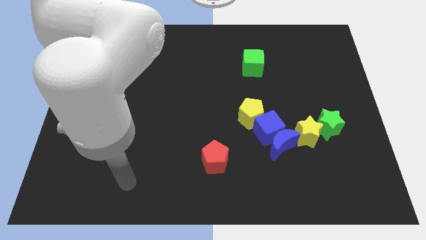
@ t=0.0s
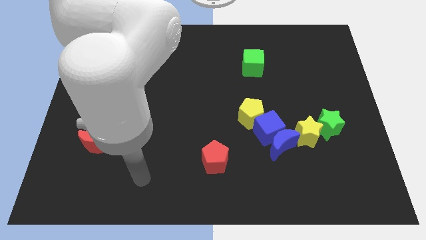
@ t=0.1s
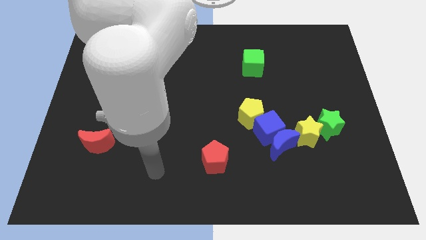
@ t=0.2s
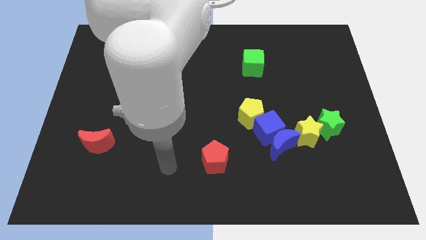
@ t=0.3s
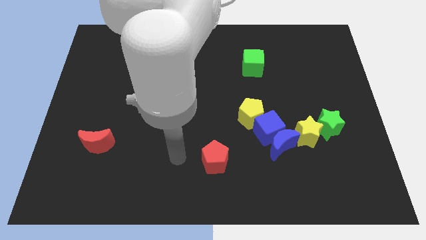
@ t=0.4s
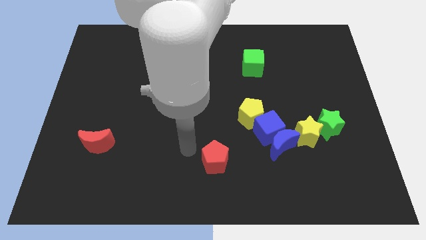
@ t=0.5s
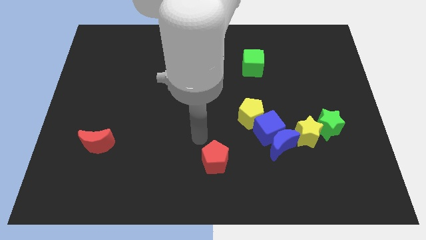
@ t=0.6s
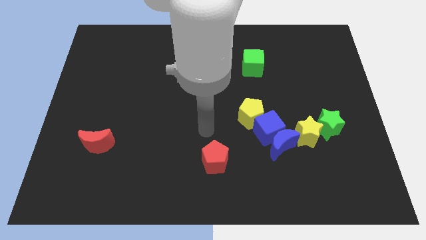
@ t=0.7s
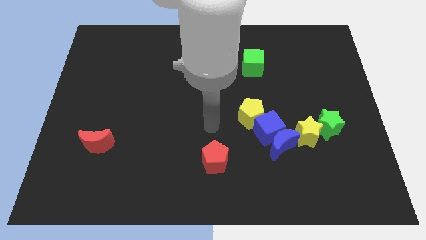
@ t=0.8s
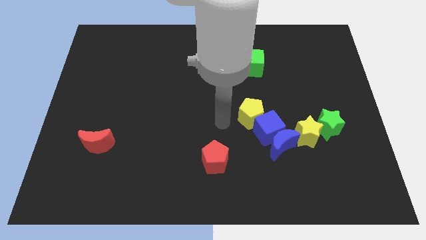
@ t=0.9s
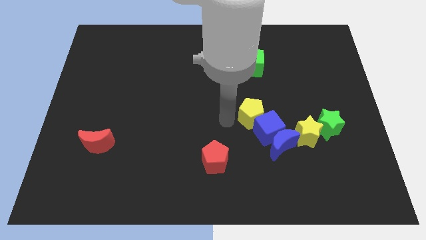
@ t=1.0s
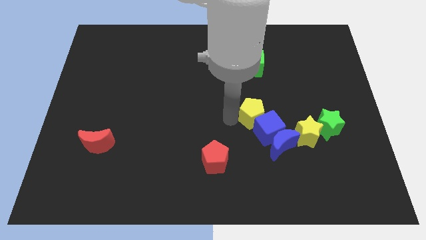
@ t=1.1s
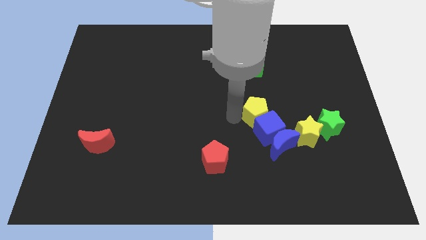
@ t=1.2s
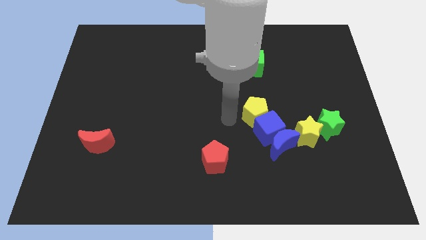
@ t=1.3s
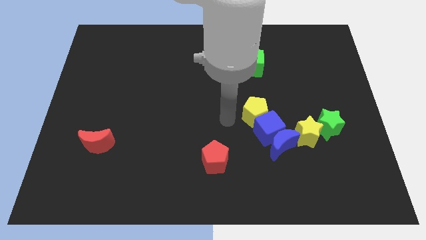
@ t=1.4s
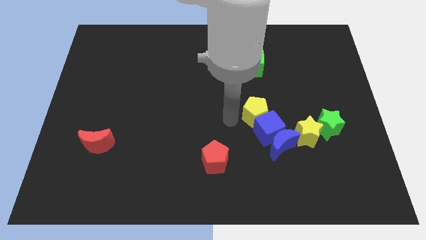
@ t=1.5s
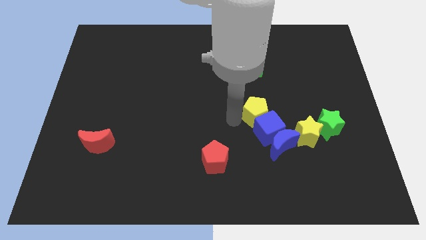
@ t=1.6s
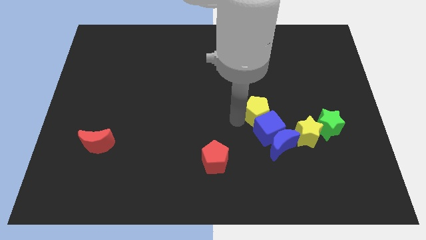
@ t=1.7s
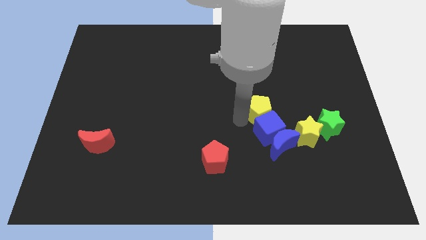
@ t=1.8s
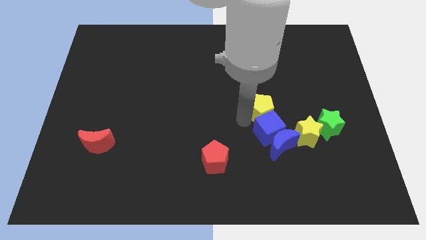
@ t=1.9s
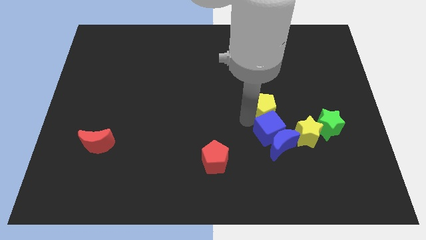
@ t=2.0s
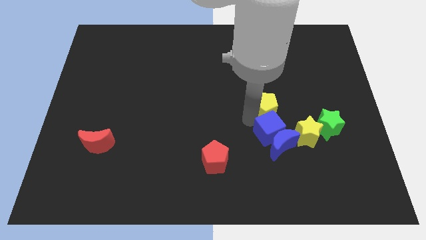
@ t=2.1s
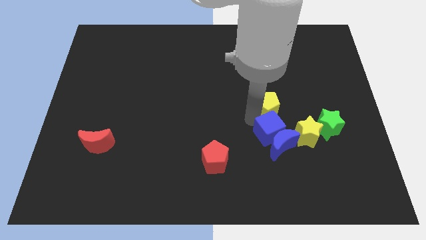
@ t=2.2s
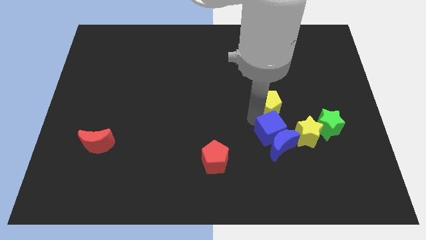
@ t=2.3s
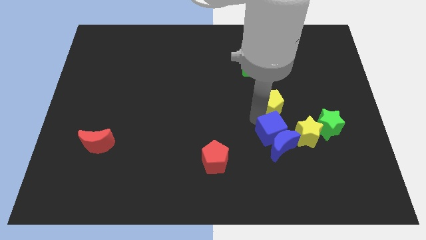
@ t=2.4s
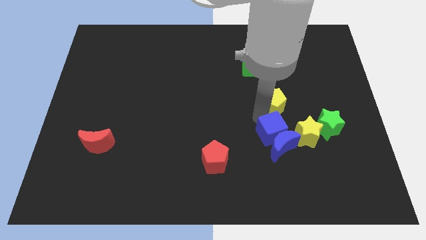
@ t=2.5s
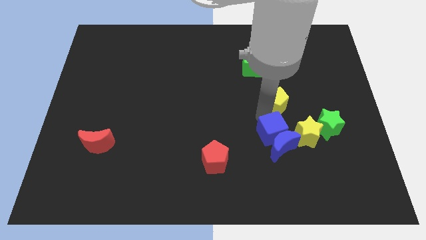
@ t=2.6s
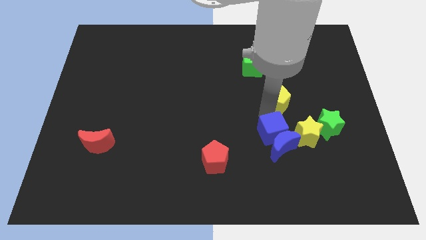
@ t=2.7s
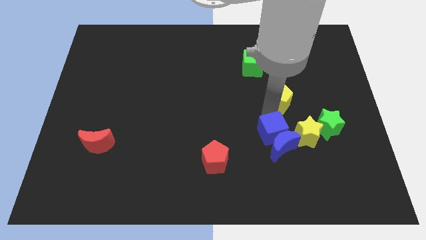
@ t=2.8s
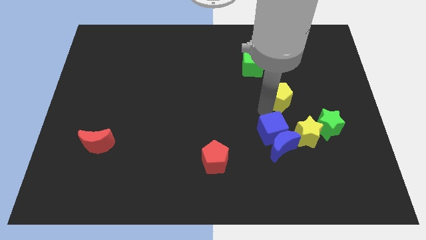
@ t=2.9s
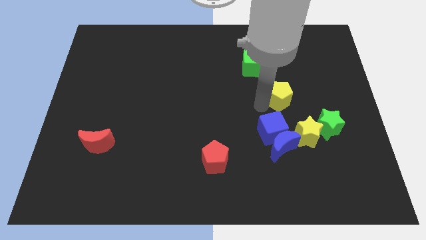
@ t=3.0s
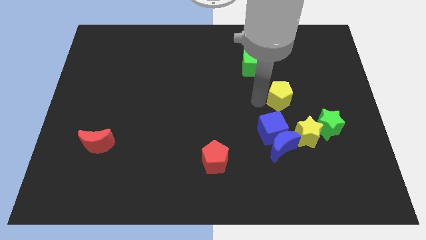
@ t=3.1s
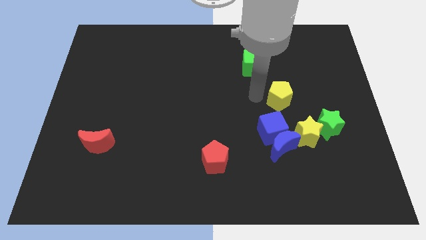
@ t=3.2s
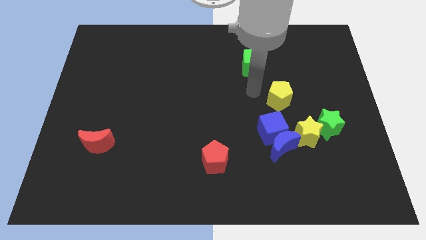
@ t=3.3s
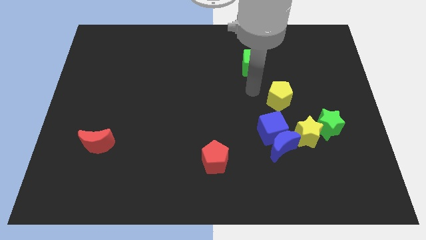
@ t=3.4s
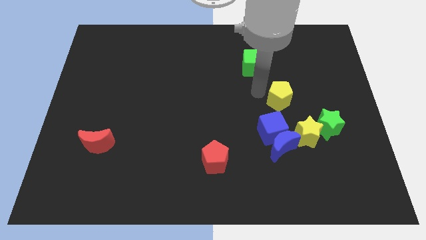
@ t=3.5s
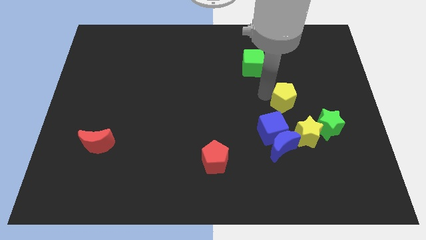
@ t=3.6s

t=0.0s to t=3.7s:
push the yellow pentagon to the right a little

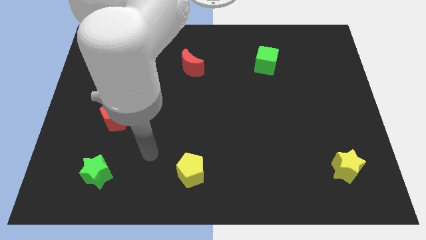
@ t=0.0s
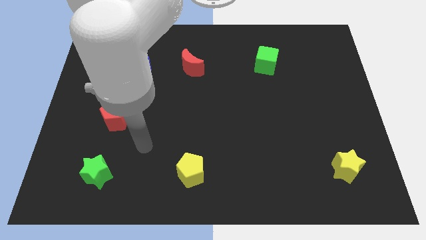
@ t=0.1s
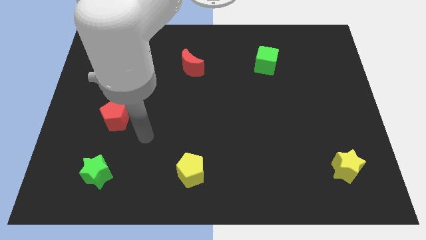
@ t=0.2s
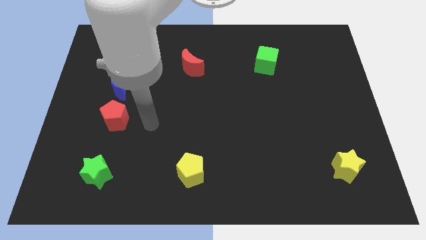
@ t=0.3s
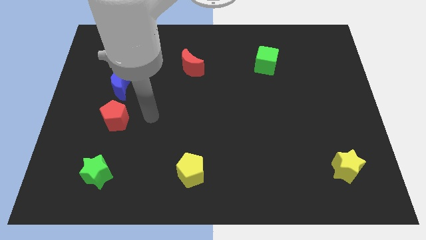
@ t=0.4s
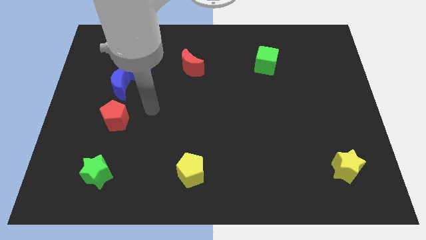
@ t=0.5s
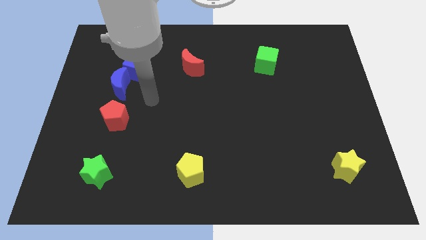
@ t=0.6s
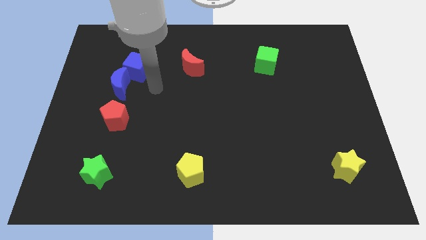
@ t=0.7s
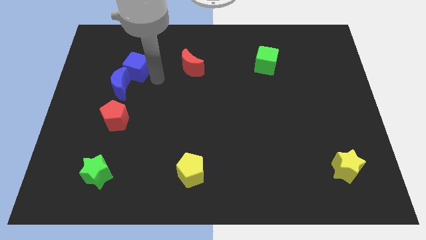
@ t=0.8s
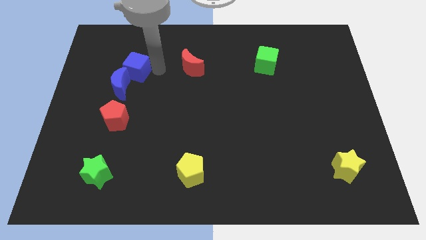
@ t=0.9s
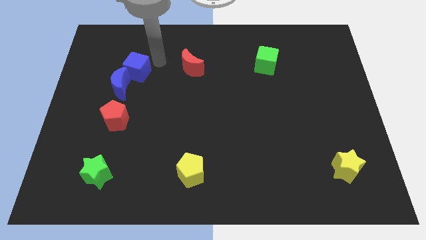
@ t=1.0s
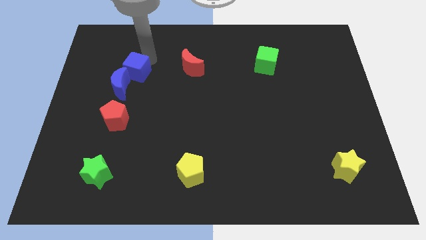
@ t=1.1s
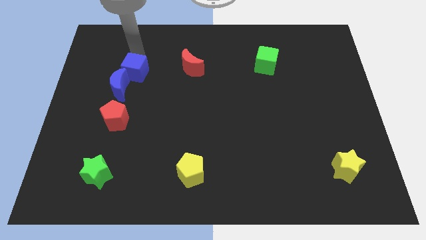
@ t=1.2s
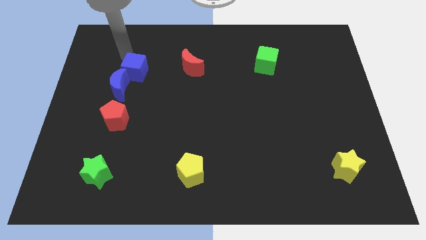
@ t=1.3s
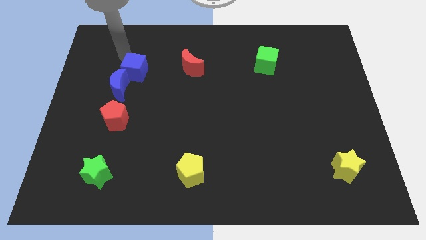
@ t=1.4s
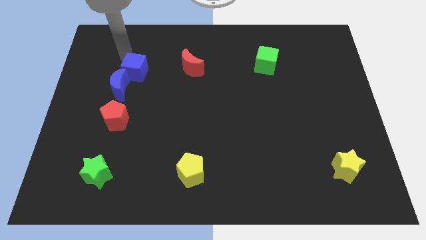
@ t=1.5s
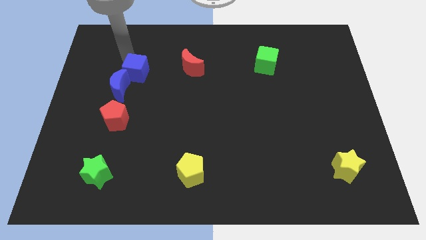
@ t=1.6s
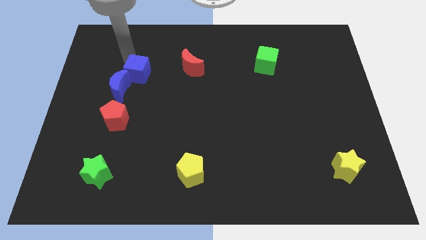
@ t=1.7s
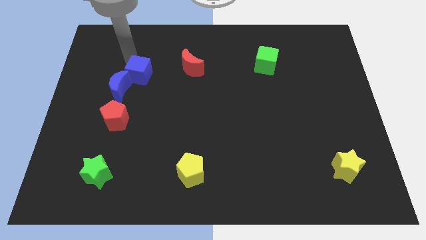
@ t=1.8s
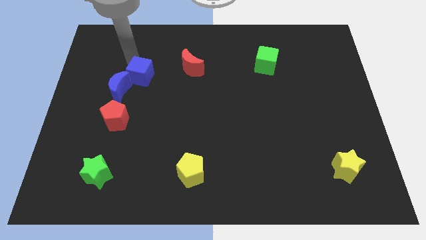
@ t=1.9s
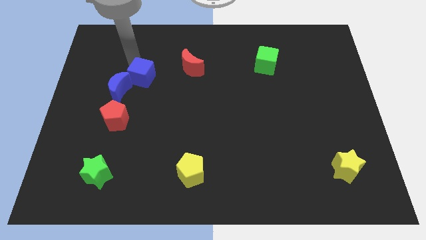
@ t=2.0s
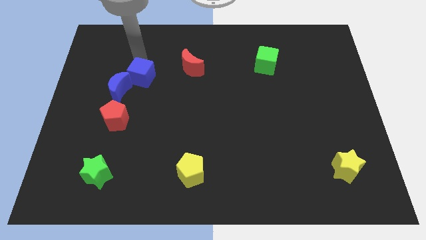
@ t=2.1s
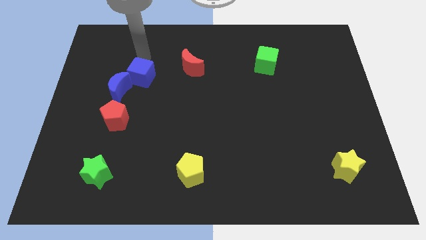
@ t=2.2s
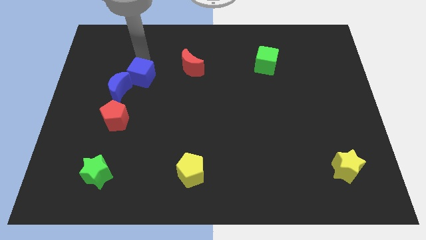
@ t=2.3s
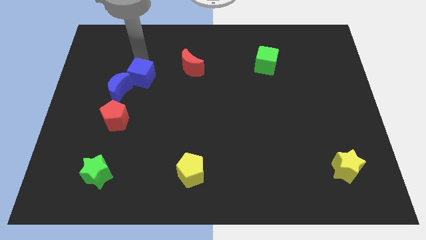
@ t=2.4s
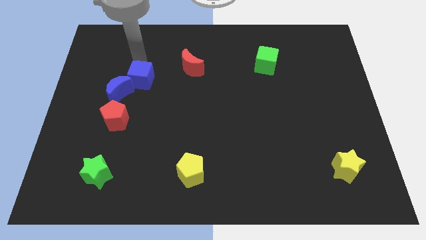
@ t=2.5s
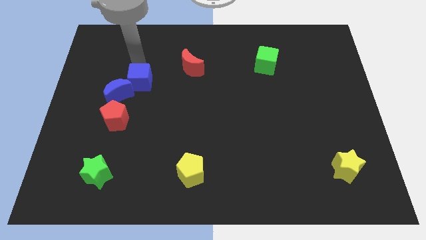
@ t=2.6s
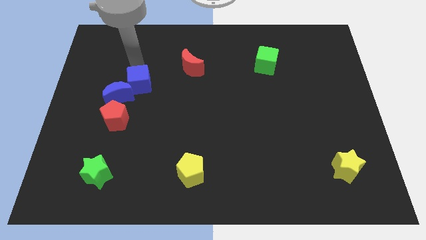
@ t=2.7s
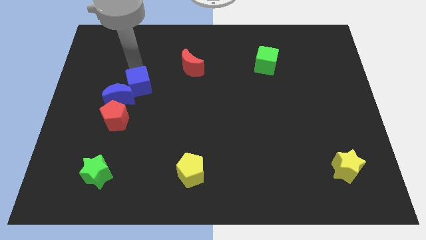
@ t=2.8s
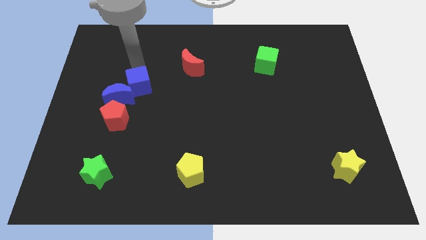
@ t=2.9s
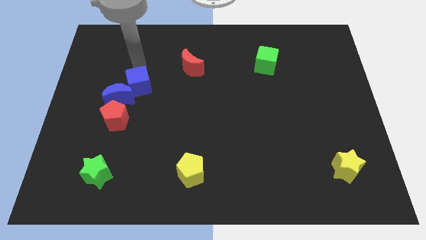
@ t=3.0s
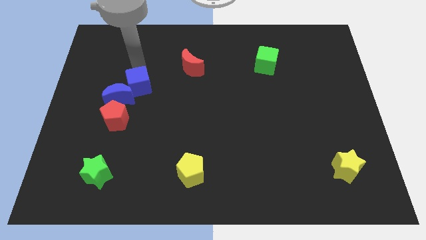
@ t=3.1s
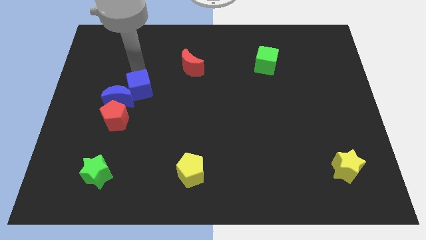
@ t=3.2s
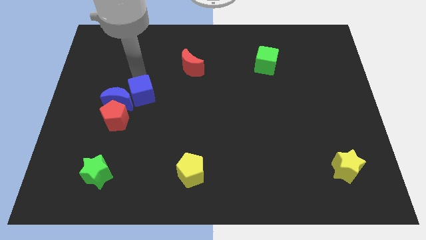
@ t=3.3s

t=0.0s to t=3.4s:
move the blue cube downwards a little bit

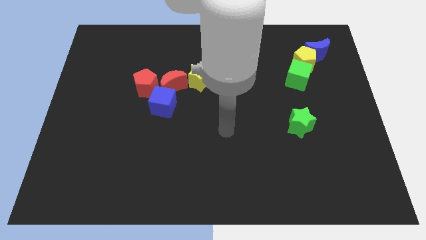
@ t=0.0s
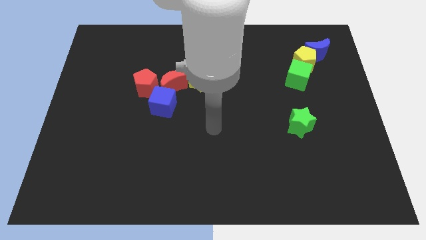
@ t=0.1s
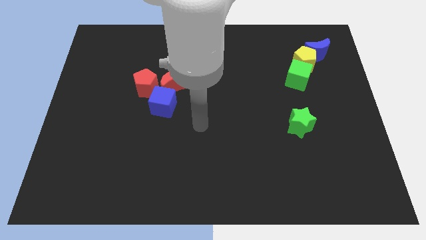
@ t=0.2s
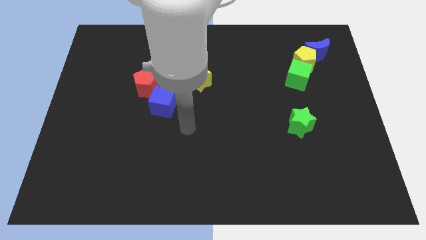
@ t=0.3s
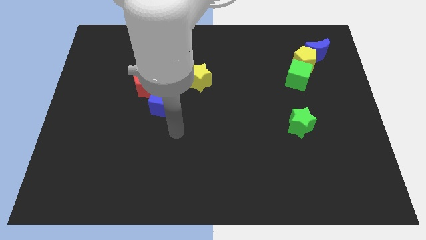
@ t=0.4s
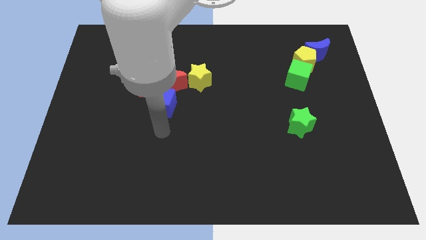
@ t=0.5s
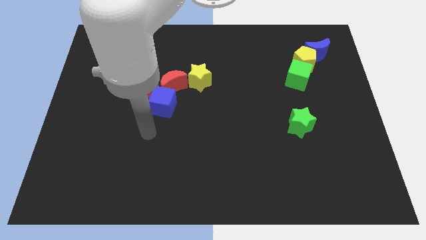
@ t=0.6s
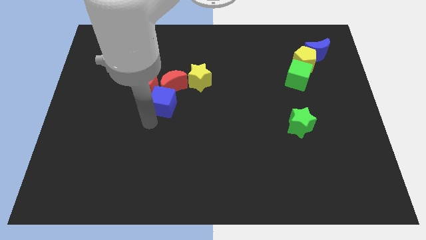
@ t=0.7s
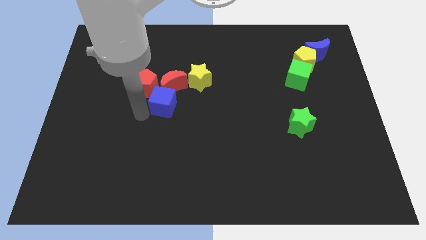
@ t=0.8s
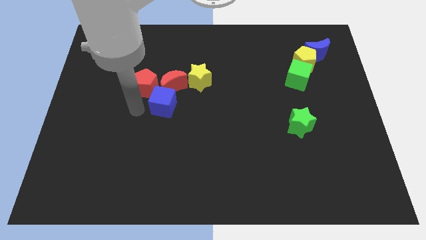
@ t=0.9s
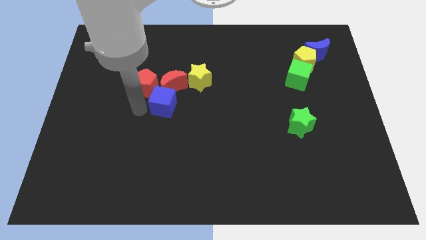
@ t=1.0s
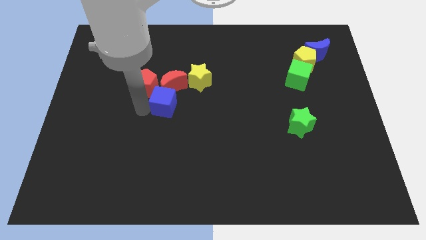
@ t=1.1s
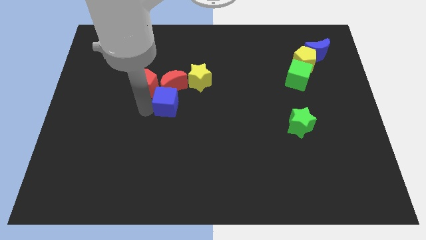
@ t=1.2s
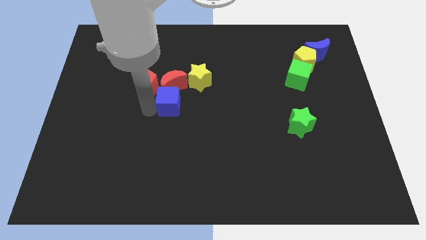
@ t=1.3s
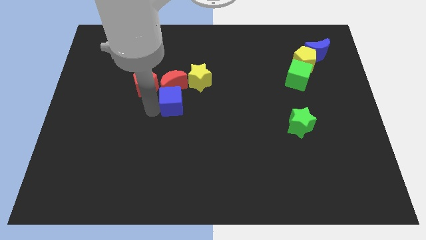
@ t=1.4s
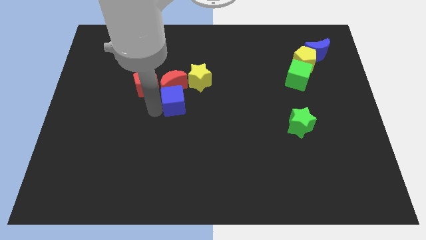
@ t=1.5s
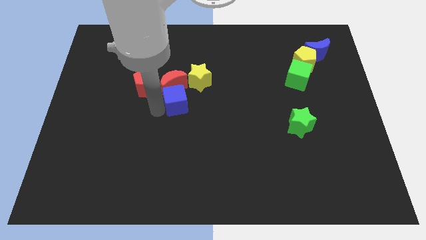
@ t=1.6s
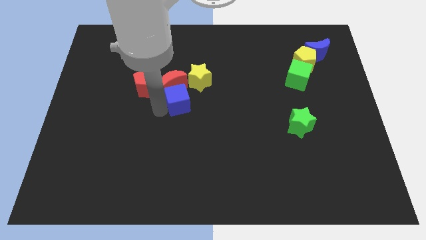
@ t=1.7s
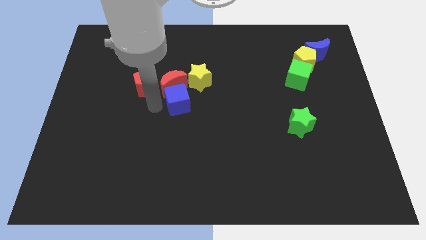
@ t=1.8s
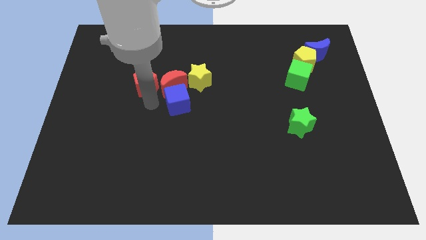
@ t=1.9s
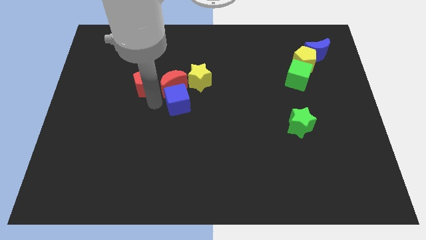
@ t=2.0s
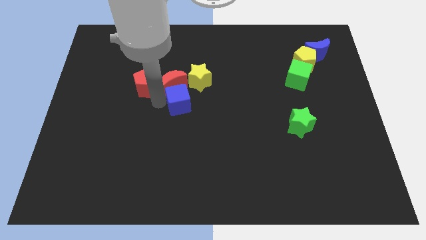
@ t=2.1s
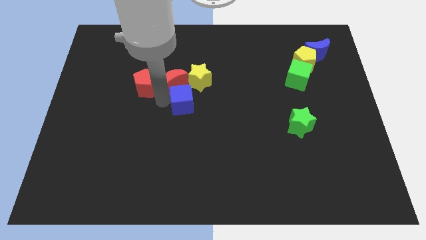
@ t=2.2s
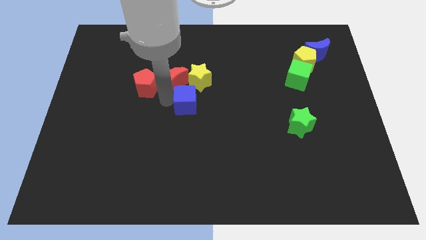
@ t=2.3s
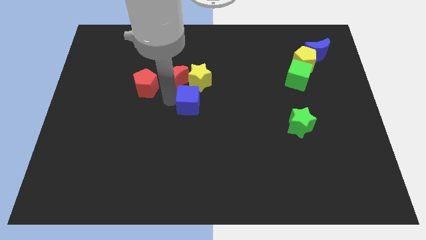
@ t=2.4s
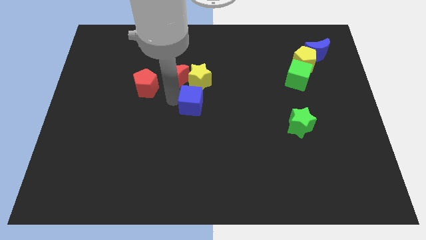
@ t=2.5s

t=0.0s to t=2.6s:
push the blue cube a little bit right
